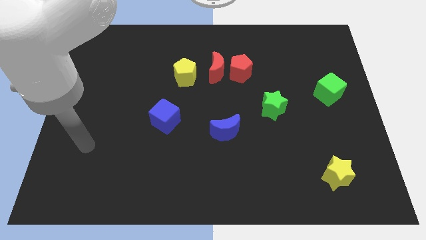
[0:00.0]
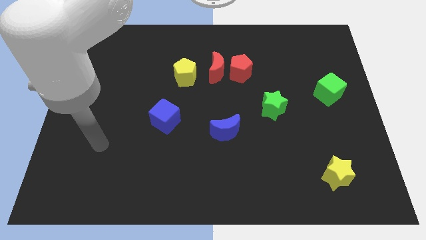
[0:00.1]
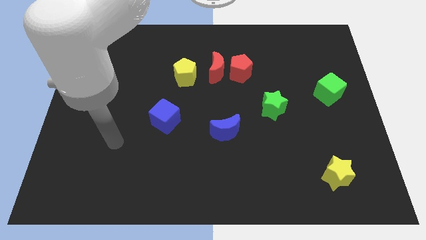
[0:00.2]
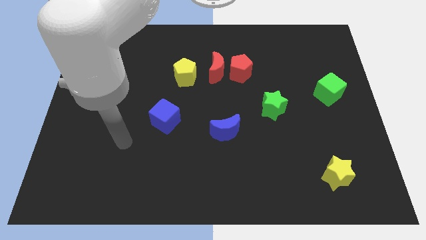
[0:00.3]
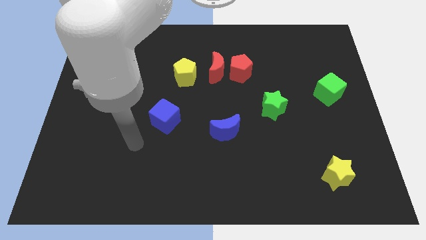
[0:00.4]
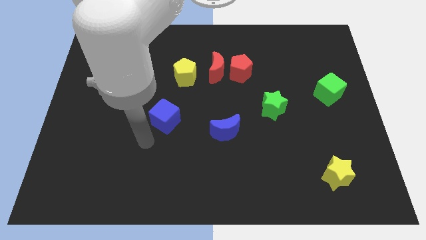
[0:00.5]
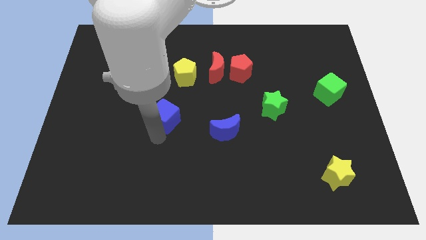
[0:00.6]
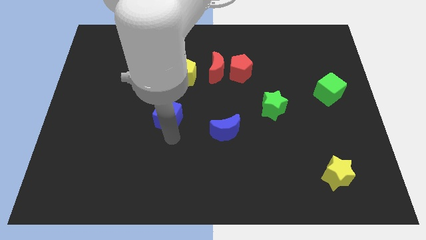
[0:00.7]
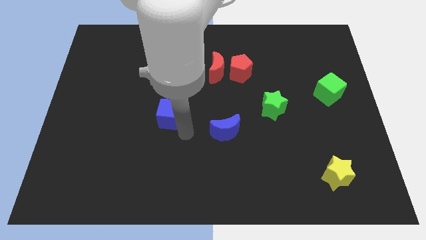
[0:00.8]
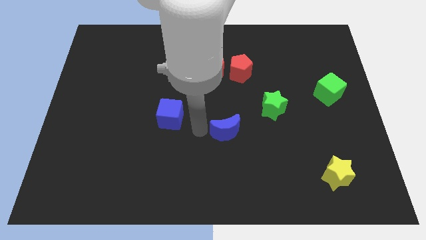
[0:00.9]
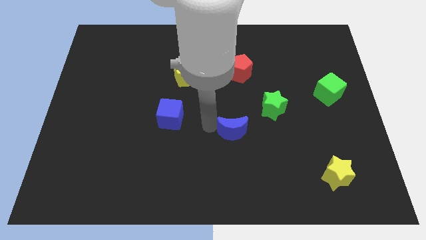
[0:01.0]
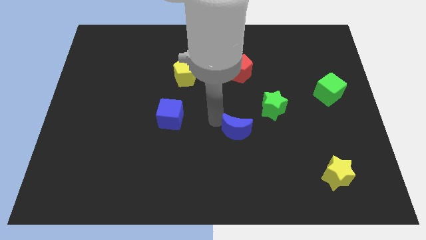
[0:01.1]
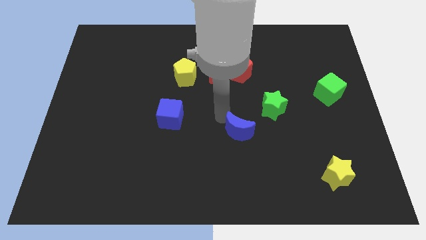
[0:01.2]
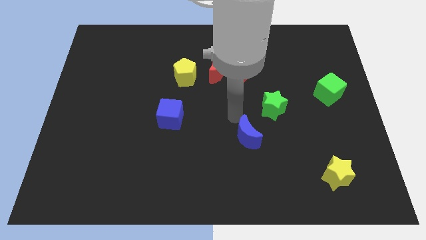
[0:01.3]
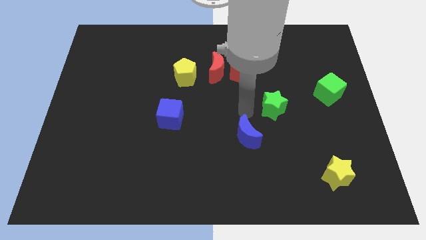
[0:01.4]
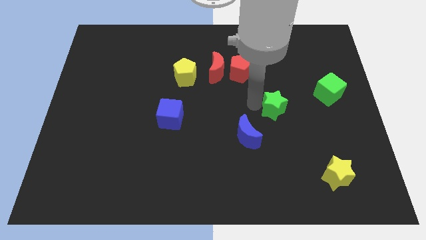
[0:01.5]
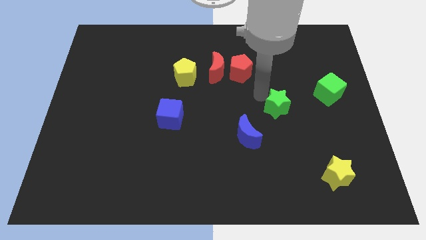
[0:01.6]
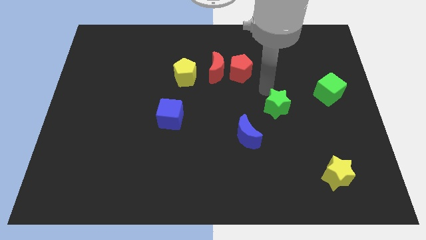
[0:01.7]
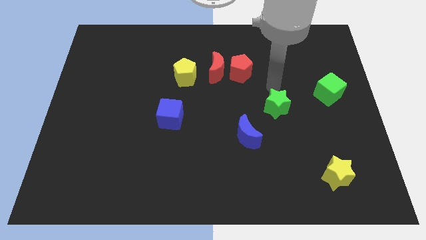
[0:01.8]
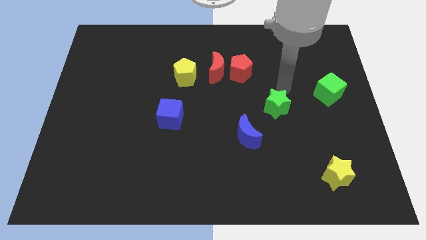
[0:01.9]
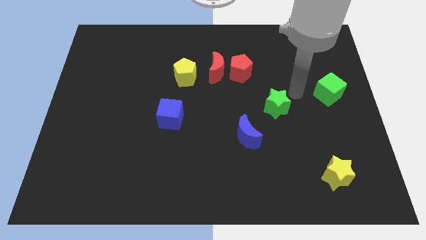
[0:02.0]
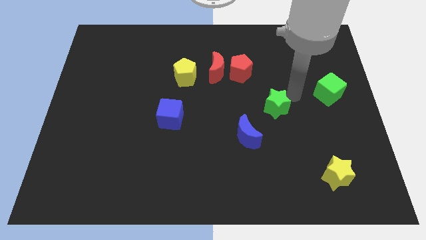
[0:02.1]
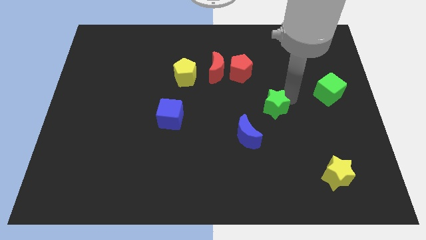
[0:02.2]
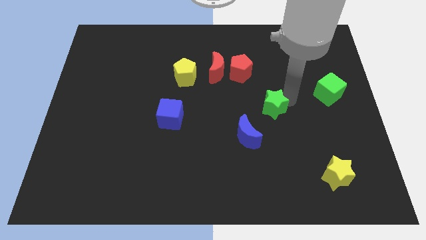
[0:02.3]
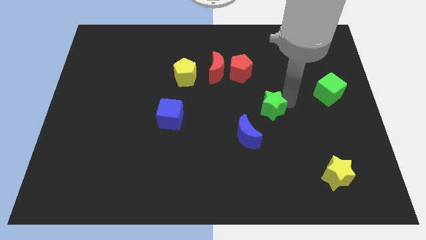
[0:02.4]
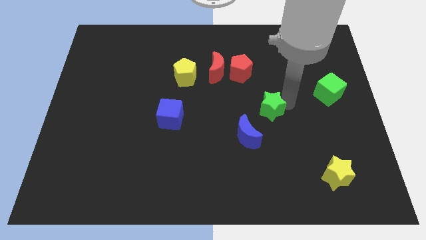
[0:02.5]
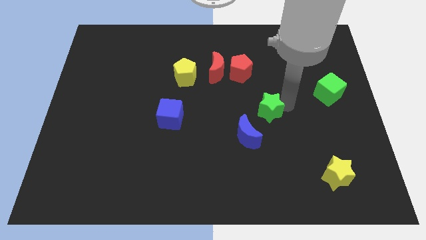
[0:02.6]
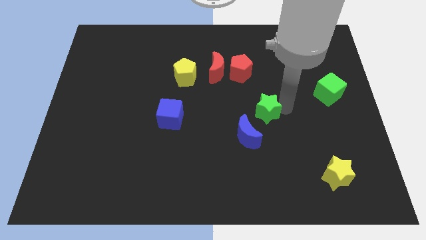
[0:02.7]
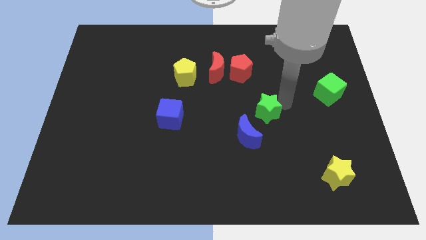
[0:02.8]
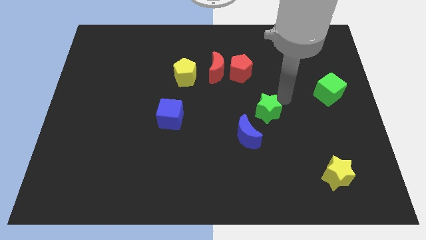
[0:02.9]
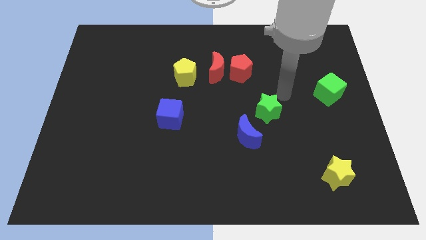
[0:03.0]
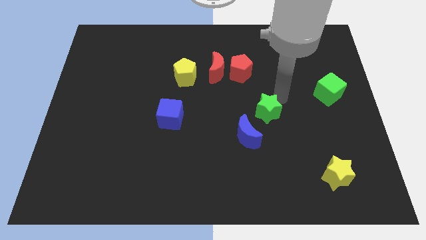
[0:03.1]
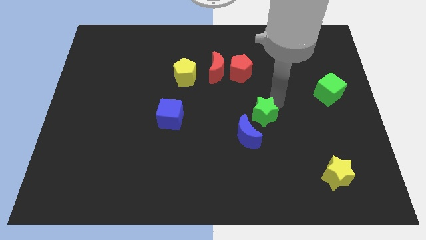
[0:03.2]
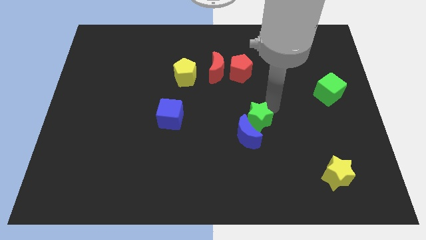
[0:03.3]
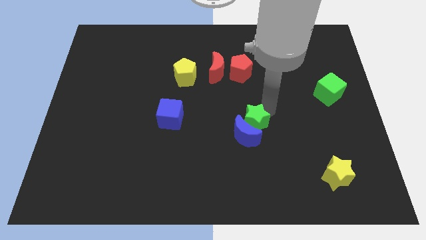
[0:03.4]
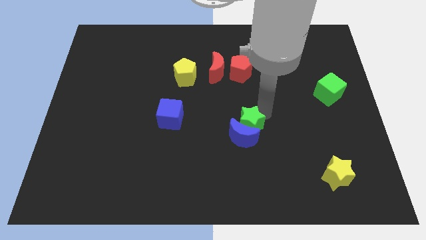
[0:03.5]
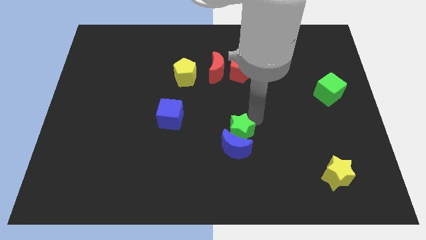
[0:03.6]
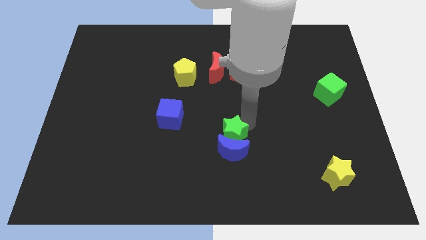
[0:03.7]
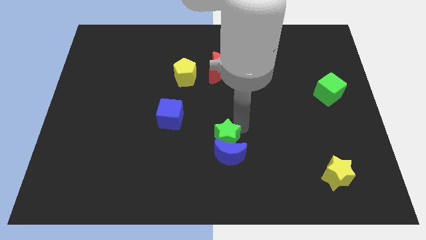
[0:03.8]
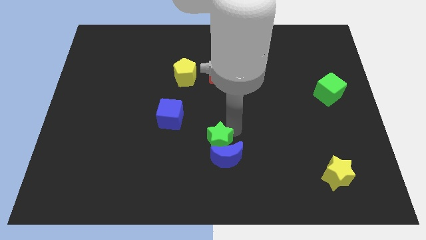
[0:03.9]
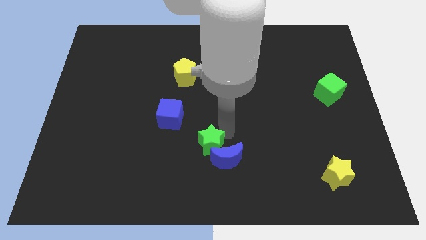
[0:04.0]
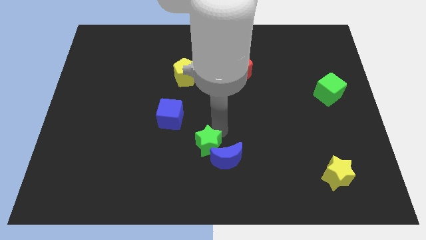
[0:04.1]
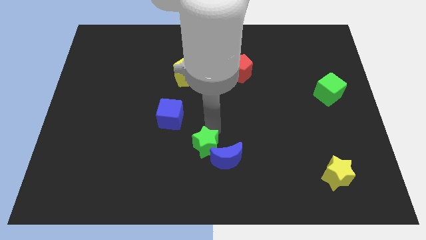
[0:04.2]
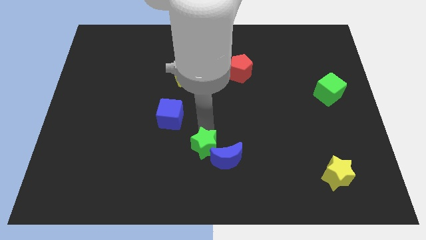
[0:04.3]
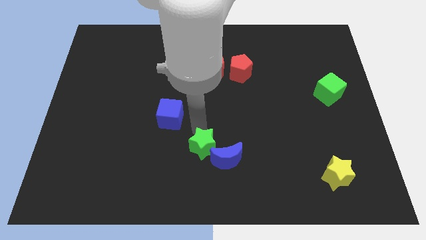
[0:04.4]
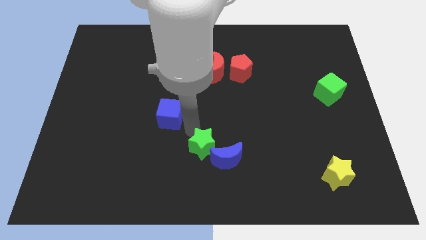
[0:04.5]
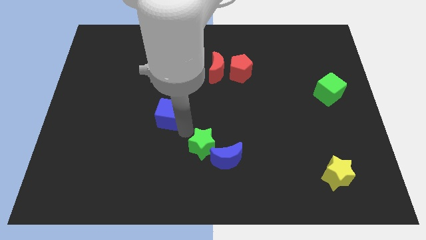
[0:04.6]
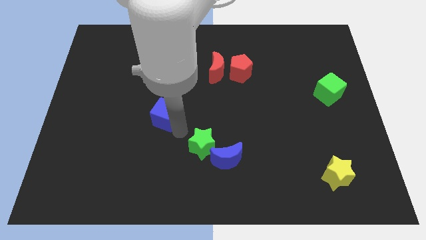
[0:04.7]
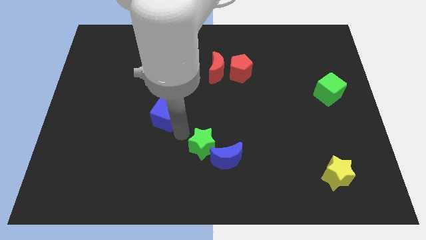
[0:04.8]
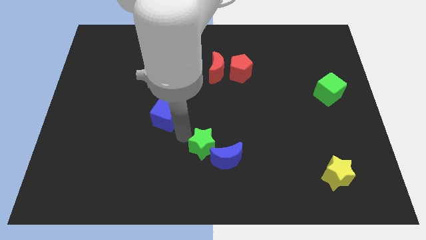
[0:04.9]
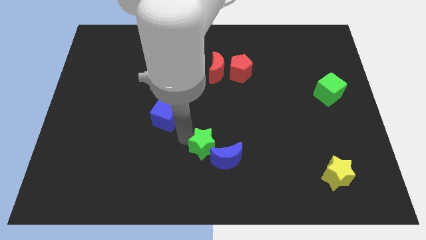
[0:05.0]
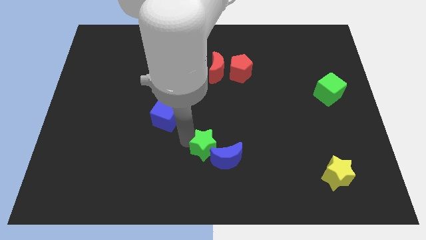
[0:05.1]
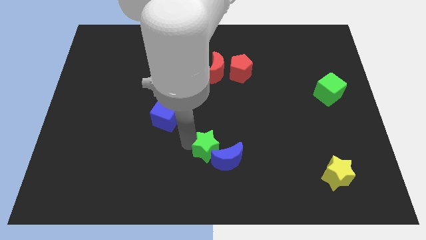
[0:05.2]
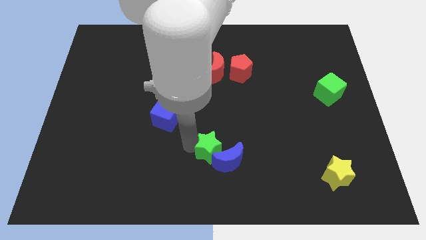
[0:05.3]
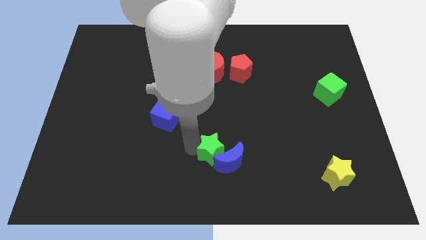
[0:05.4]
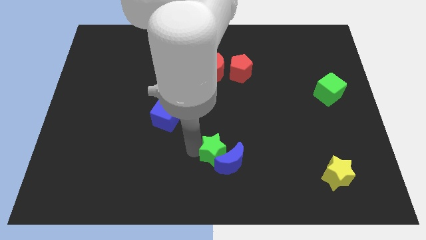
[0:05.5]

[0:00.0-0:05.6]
slide the green star to the bottom
